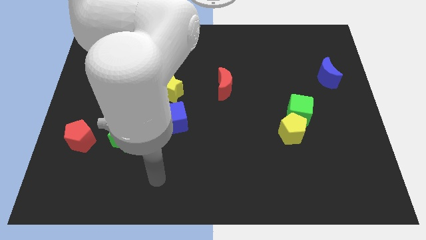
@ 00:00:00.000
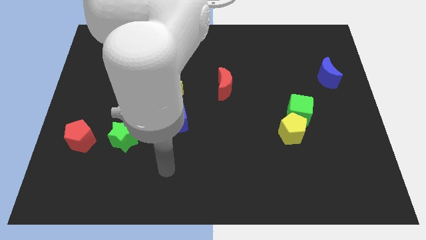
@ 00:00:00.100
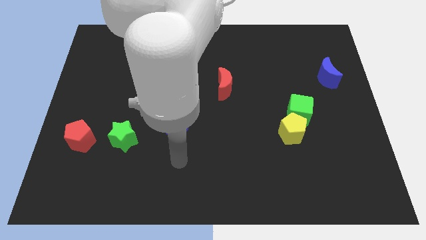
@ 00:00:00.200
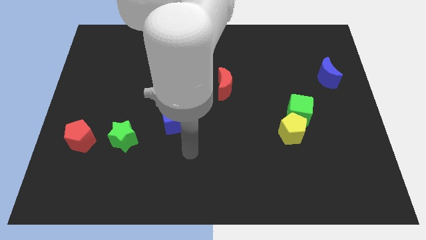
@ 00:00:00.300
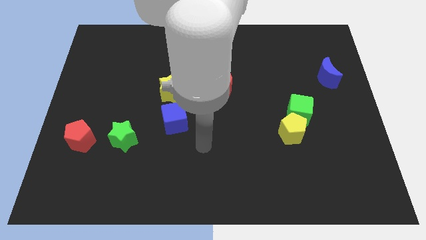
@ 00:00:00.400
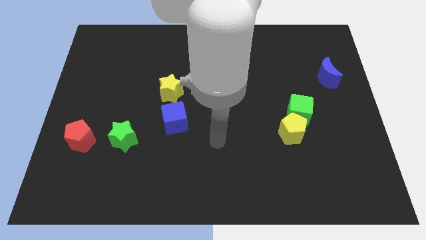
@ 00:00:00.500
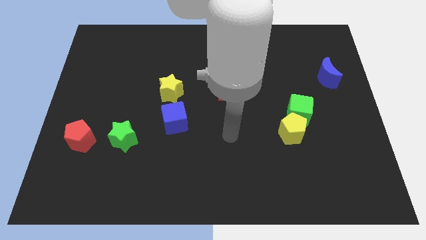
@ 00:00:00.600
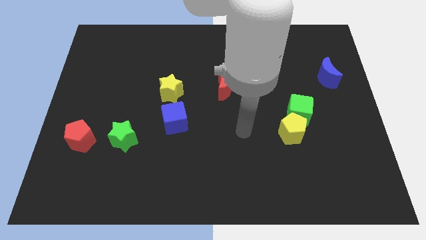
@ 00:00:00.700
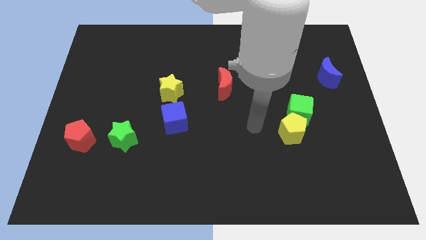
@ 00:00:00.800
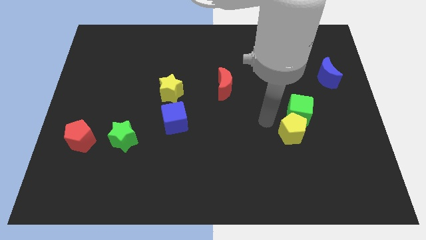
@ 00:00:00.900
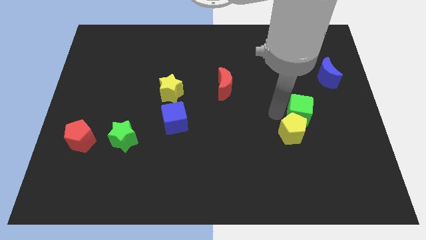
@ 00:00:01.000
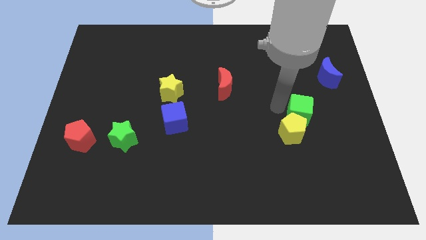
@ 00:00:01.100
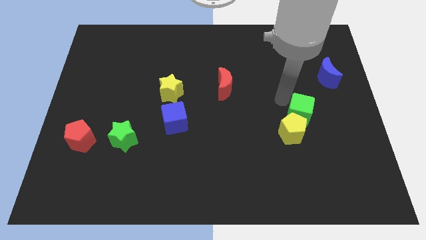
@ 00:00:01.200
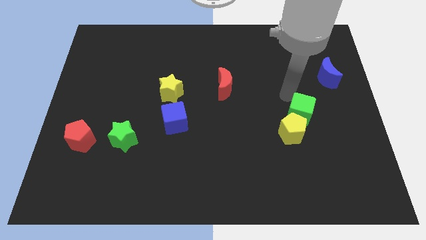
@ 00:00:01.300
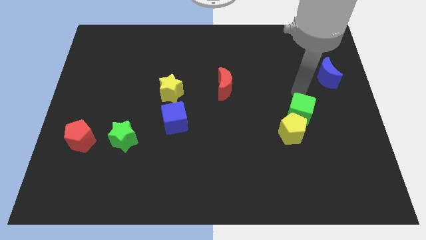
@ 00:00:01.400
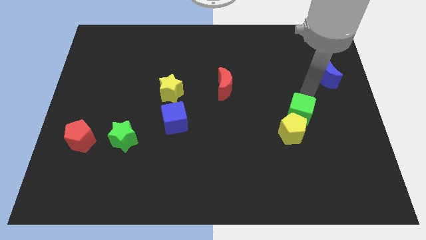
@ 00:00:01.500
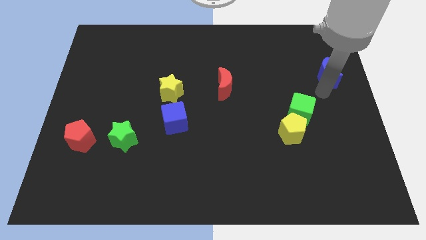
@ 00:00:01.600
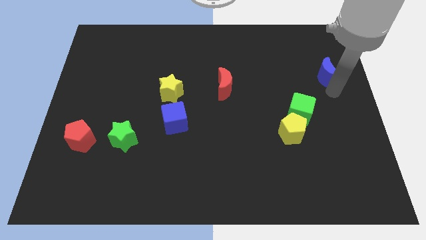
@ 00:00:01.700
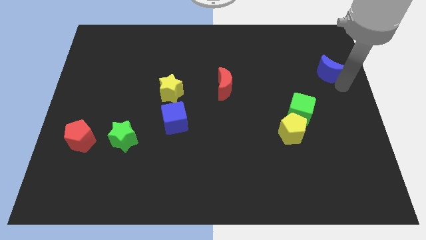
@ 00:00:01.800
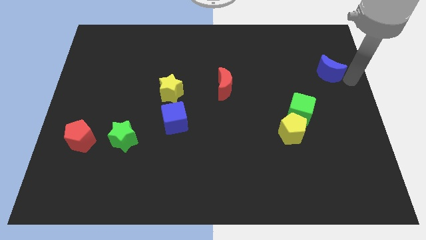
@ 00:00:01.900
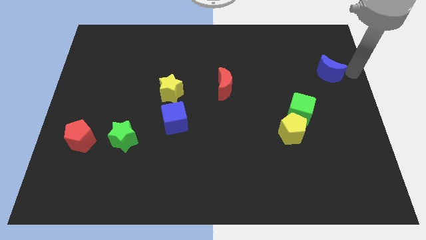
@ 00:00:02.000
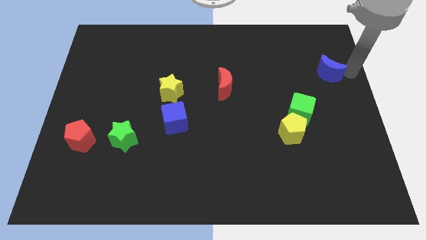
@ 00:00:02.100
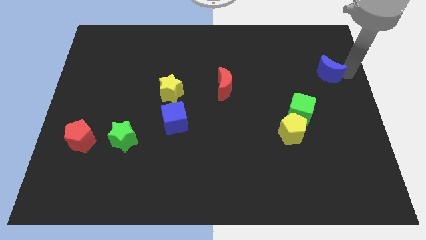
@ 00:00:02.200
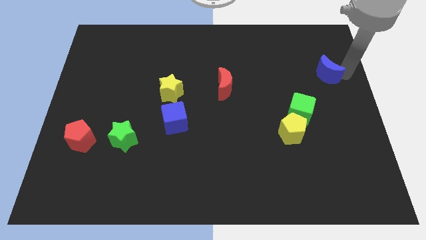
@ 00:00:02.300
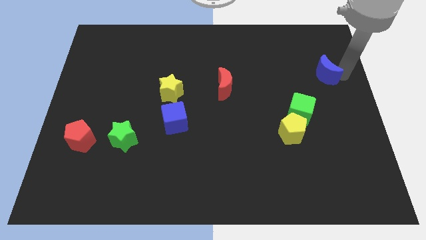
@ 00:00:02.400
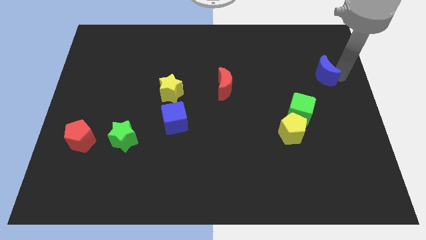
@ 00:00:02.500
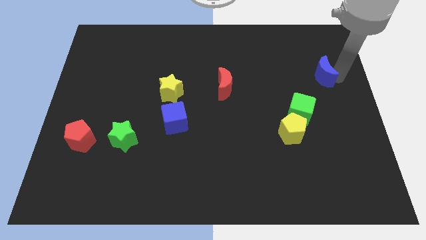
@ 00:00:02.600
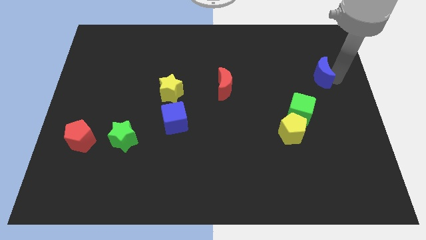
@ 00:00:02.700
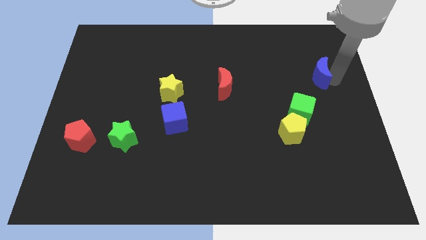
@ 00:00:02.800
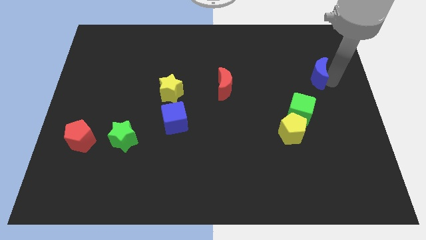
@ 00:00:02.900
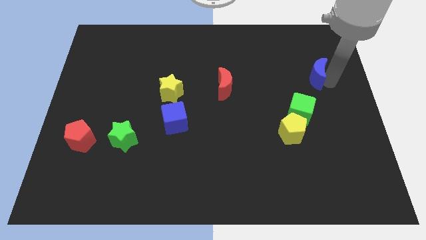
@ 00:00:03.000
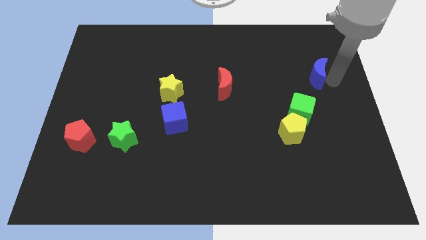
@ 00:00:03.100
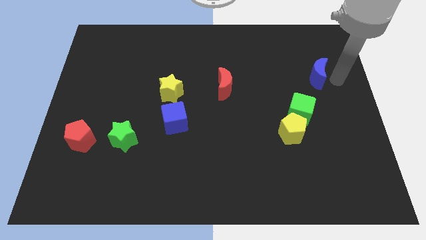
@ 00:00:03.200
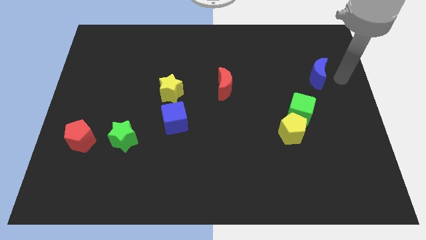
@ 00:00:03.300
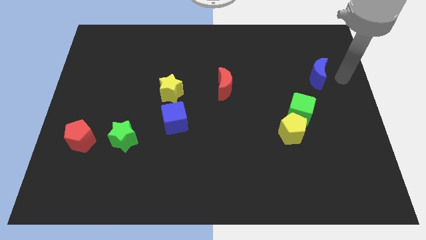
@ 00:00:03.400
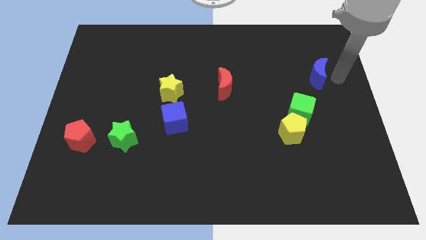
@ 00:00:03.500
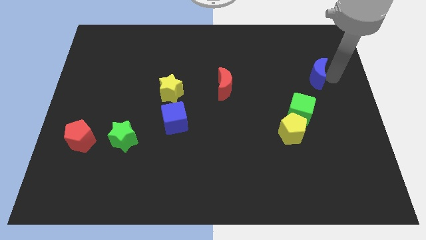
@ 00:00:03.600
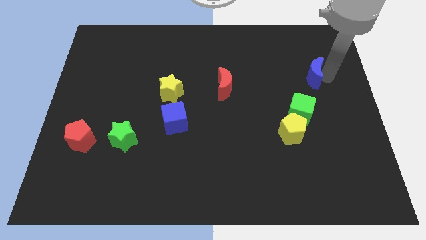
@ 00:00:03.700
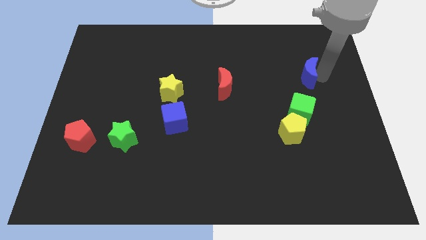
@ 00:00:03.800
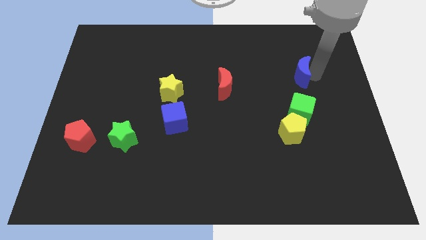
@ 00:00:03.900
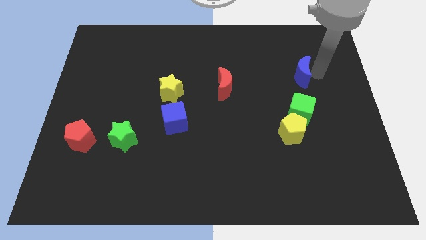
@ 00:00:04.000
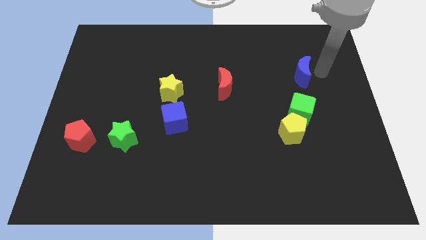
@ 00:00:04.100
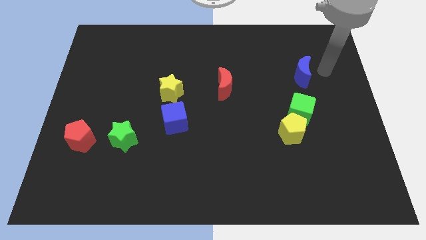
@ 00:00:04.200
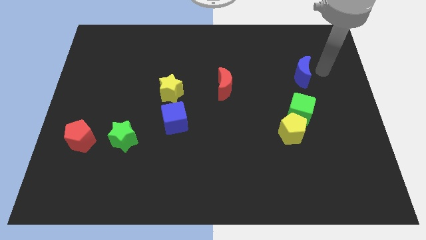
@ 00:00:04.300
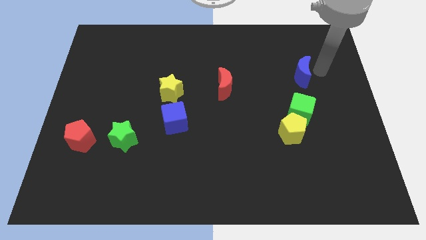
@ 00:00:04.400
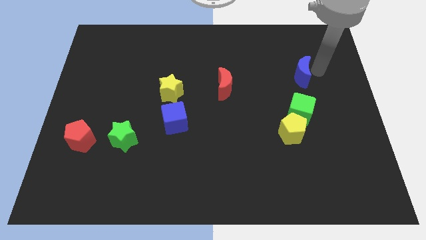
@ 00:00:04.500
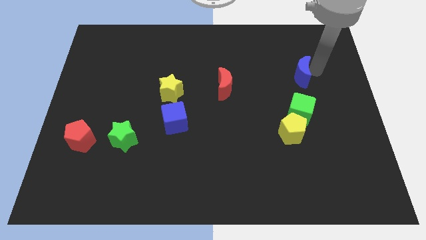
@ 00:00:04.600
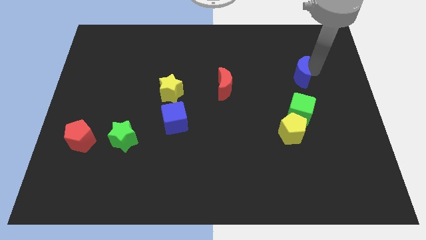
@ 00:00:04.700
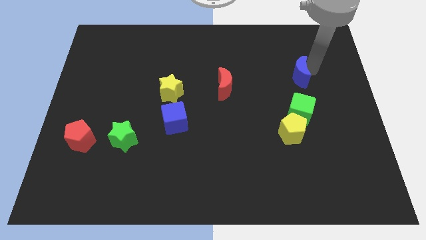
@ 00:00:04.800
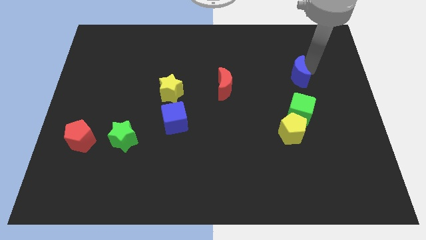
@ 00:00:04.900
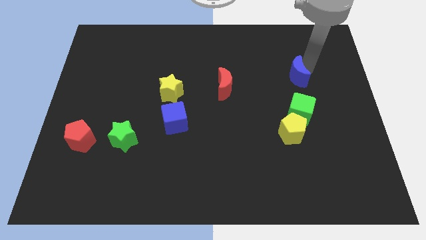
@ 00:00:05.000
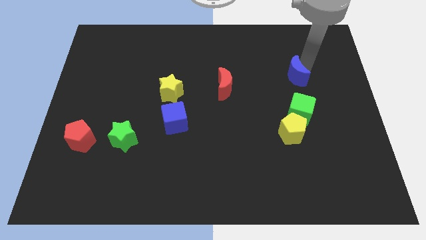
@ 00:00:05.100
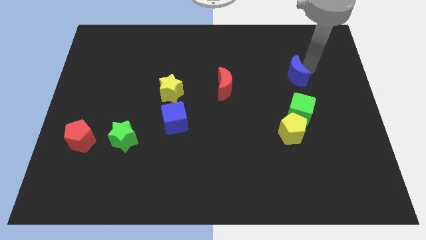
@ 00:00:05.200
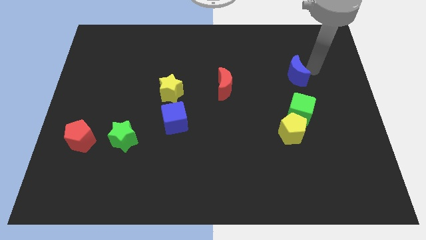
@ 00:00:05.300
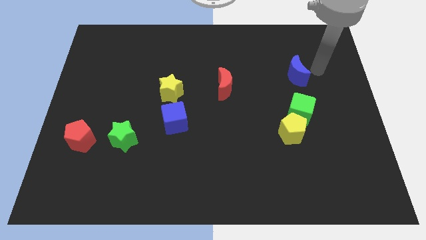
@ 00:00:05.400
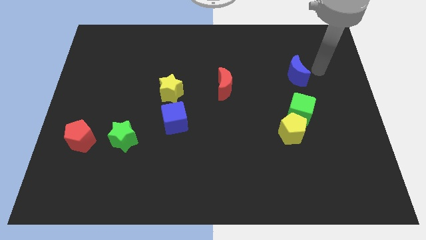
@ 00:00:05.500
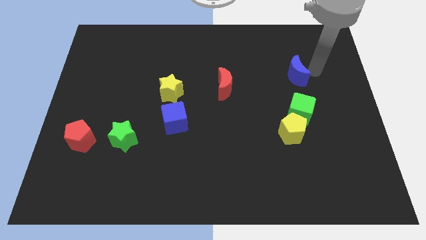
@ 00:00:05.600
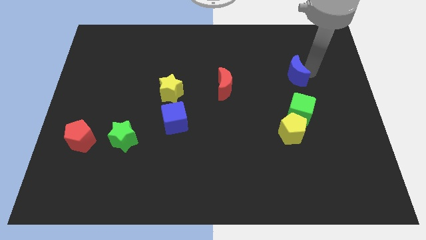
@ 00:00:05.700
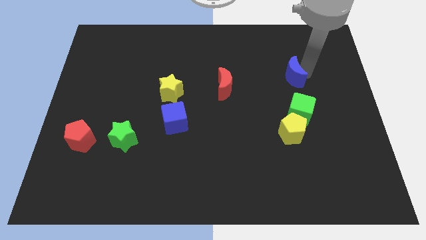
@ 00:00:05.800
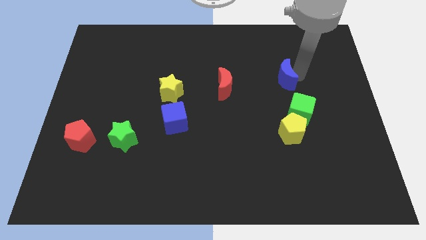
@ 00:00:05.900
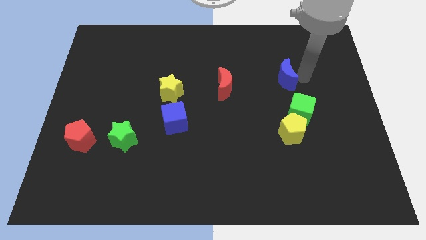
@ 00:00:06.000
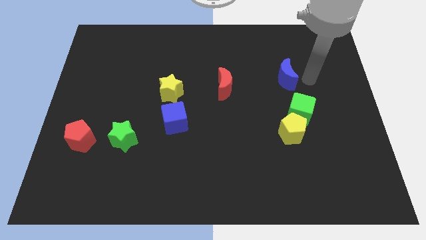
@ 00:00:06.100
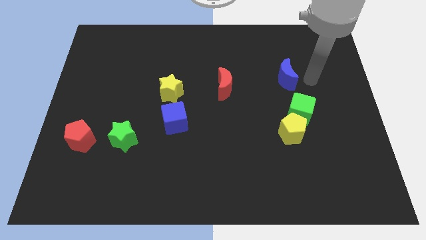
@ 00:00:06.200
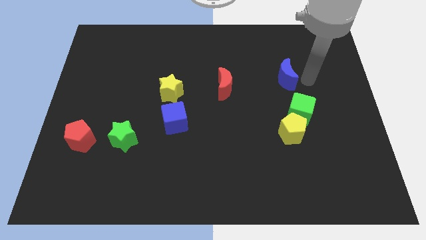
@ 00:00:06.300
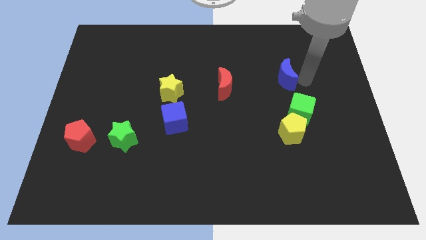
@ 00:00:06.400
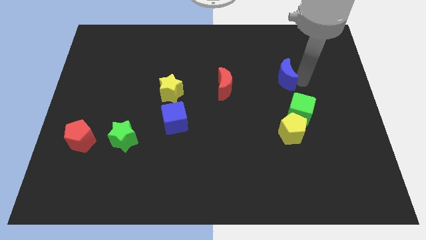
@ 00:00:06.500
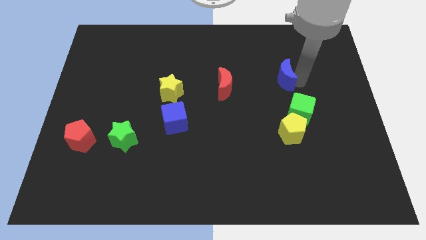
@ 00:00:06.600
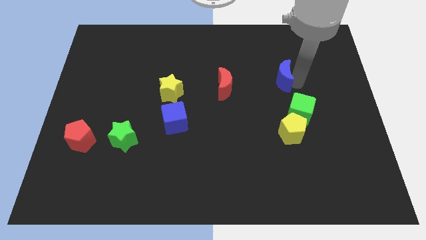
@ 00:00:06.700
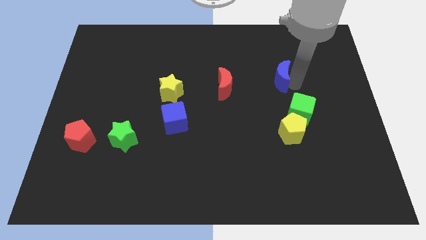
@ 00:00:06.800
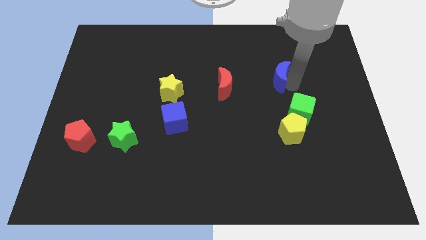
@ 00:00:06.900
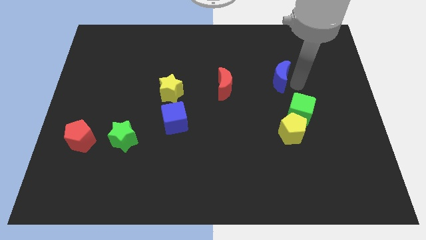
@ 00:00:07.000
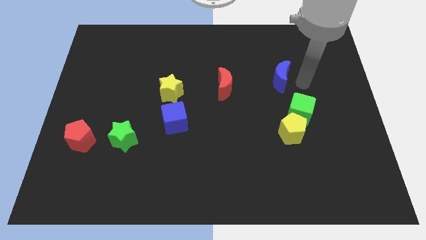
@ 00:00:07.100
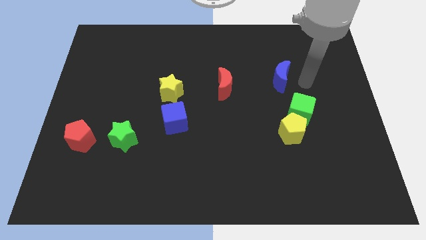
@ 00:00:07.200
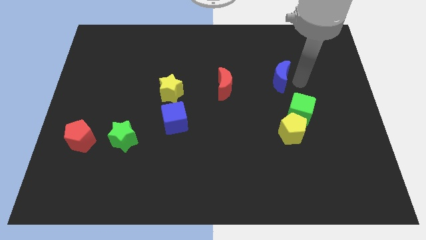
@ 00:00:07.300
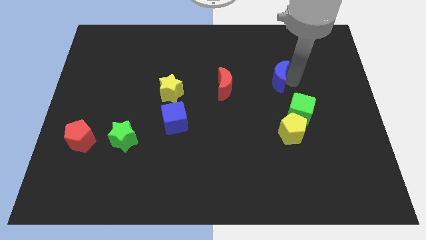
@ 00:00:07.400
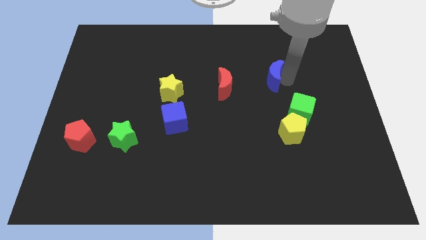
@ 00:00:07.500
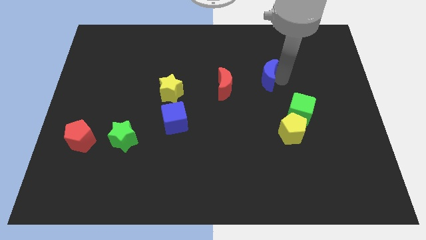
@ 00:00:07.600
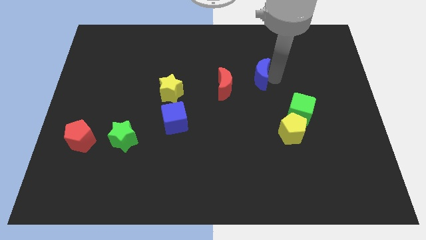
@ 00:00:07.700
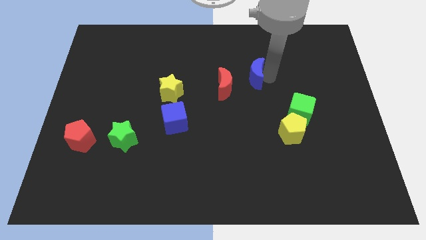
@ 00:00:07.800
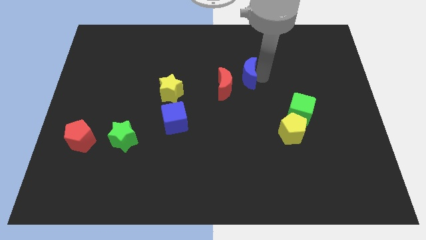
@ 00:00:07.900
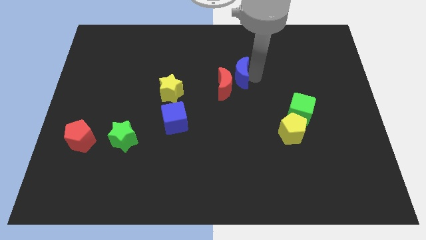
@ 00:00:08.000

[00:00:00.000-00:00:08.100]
move the blue moon left
